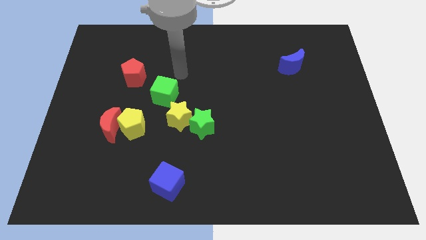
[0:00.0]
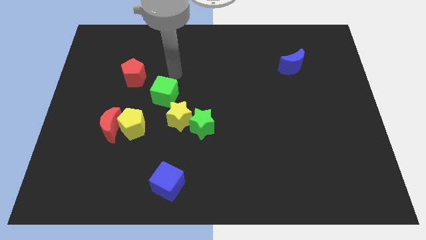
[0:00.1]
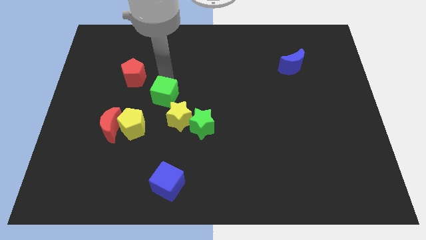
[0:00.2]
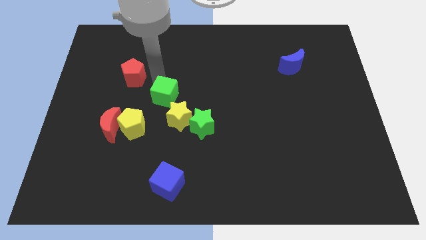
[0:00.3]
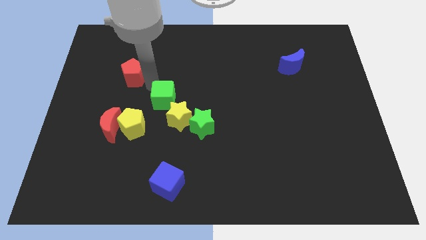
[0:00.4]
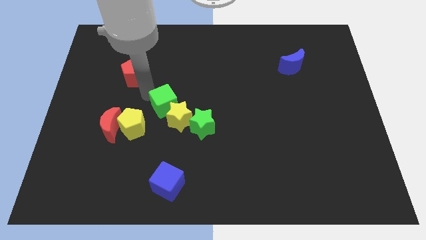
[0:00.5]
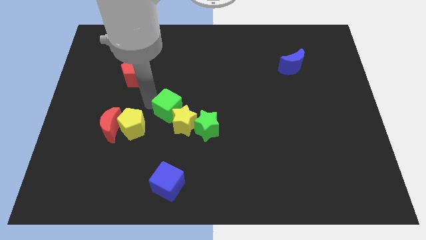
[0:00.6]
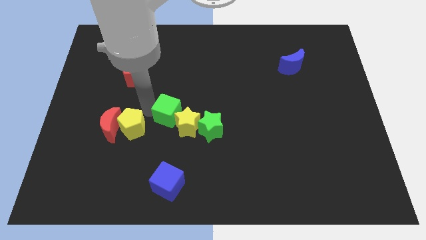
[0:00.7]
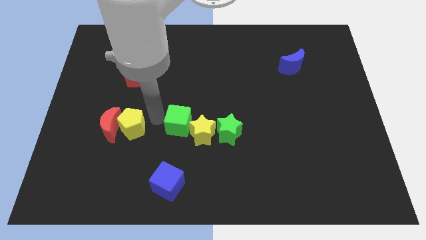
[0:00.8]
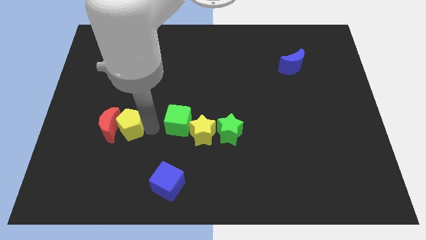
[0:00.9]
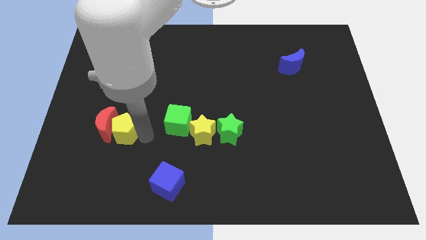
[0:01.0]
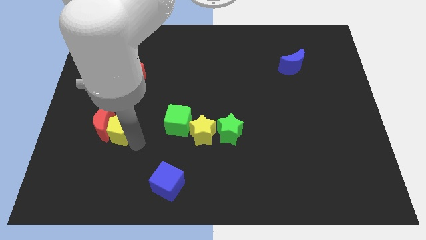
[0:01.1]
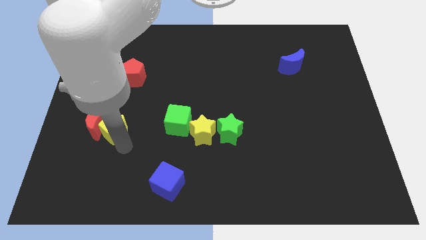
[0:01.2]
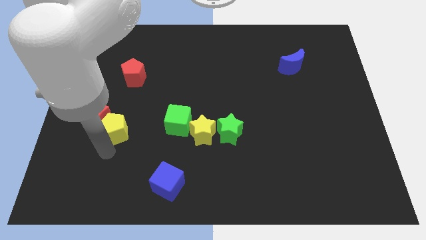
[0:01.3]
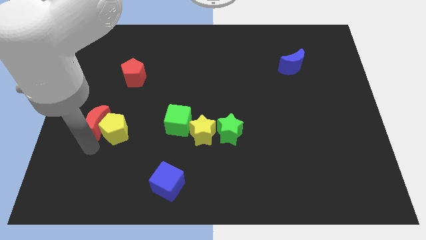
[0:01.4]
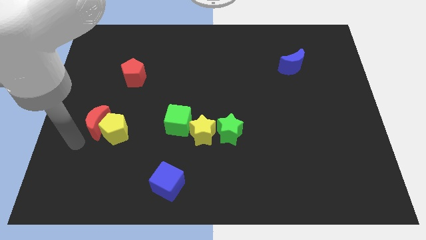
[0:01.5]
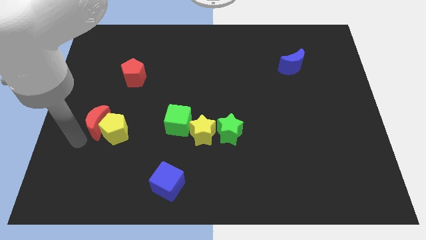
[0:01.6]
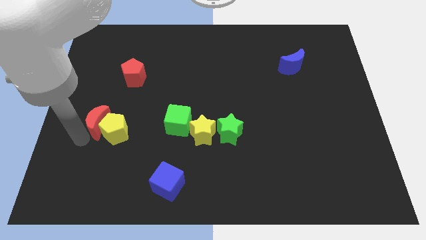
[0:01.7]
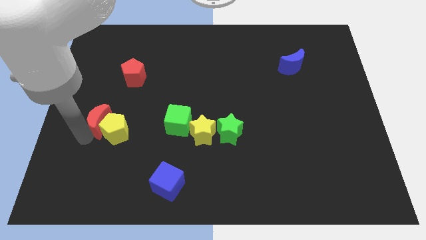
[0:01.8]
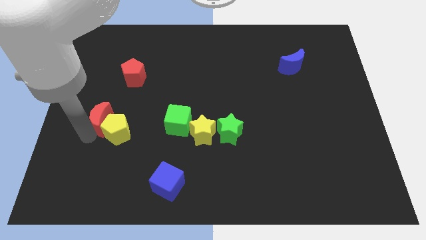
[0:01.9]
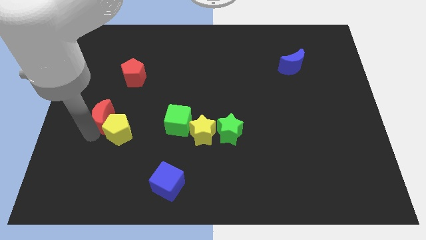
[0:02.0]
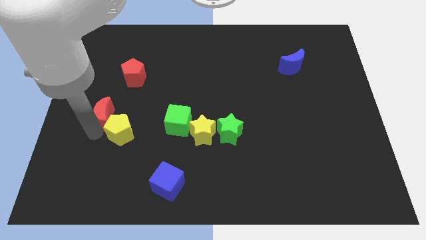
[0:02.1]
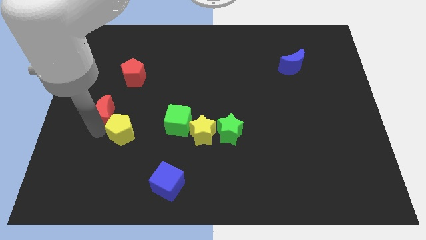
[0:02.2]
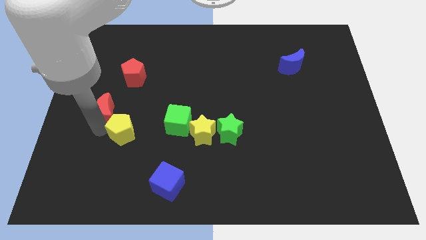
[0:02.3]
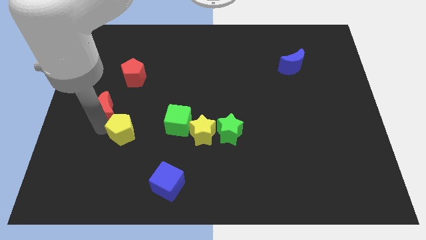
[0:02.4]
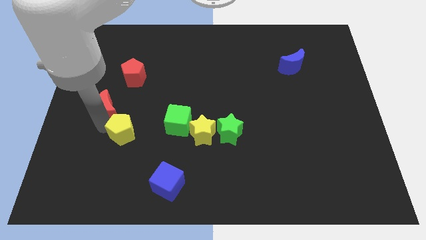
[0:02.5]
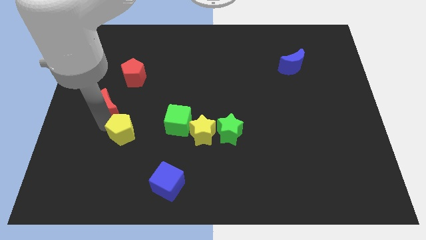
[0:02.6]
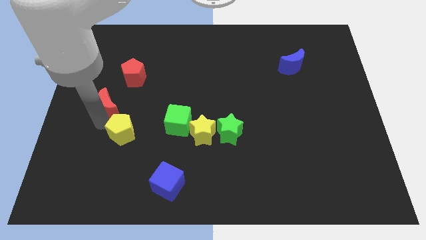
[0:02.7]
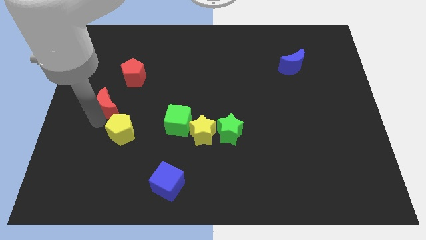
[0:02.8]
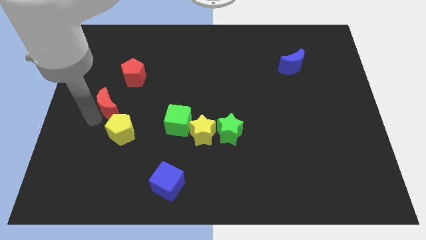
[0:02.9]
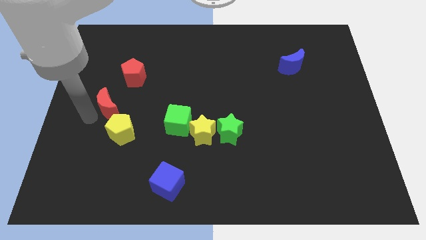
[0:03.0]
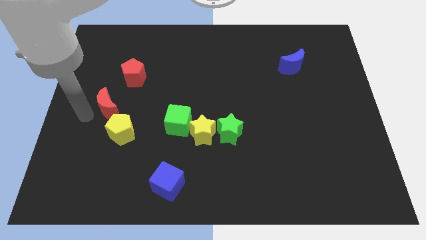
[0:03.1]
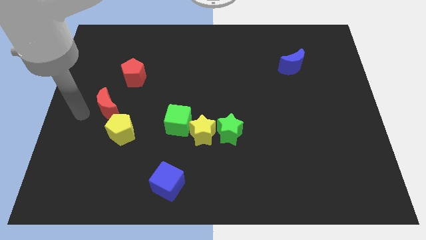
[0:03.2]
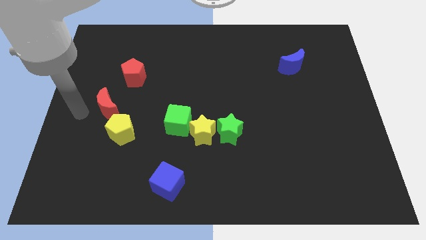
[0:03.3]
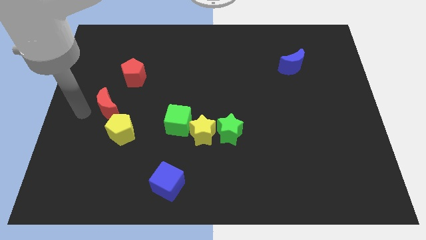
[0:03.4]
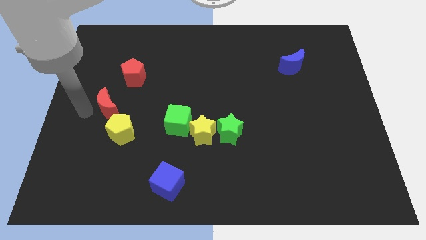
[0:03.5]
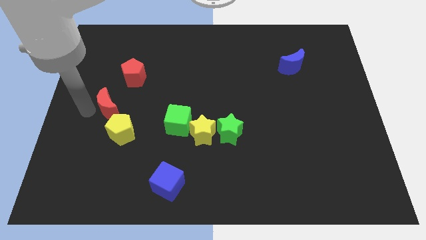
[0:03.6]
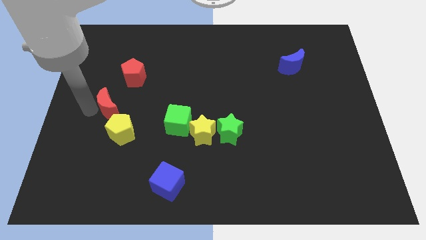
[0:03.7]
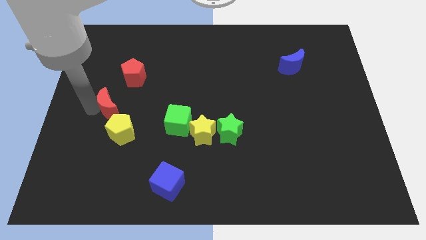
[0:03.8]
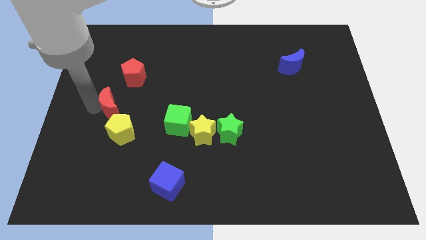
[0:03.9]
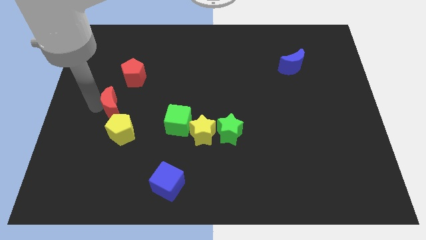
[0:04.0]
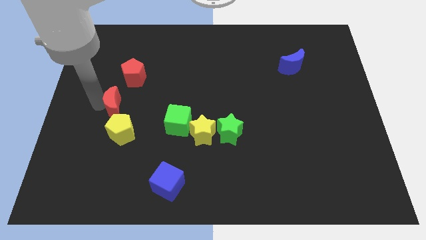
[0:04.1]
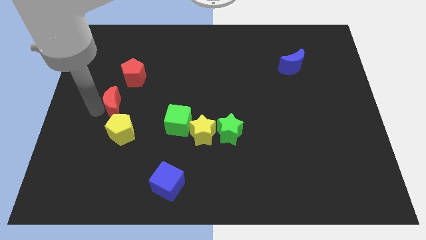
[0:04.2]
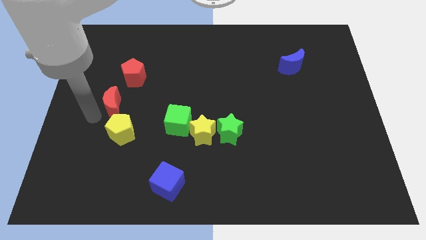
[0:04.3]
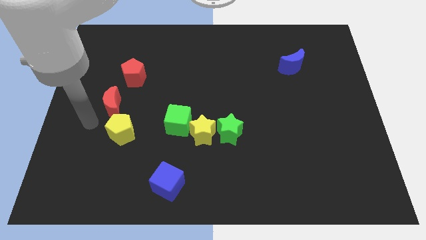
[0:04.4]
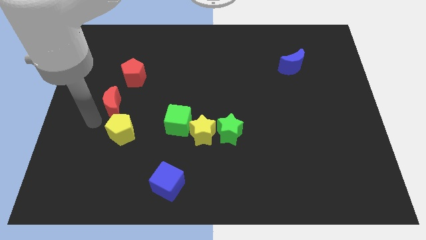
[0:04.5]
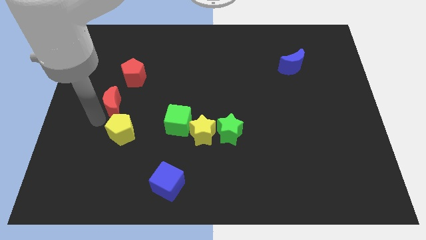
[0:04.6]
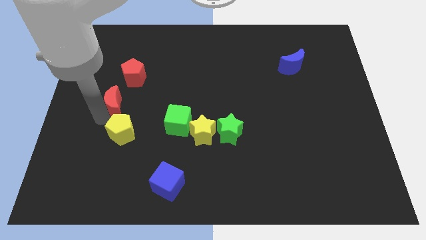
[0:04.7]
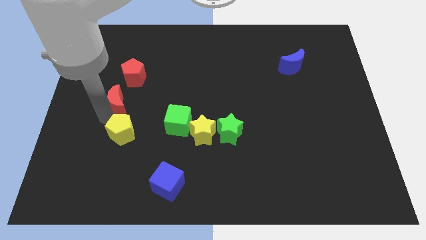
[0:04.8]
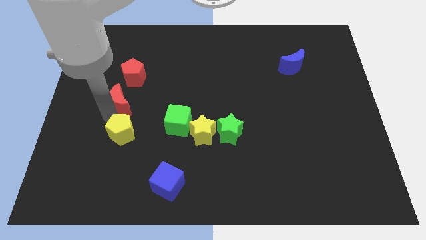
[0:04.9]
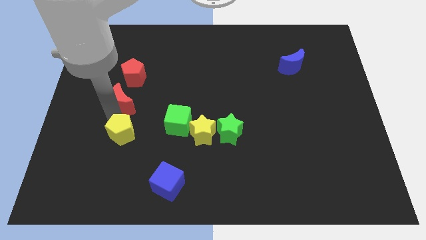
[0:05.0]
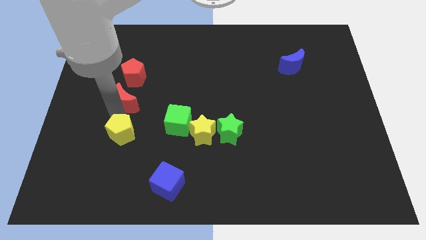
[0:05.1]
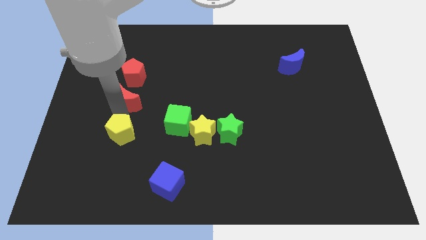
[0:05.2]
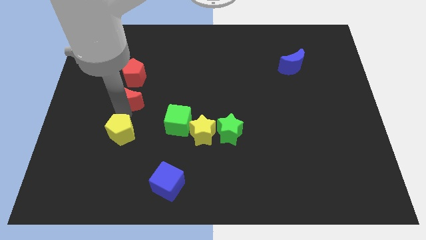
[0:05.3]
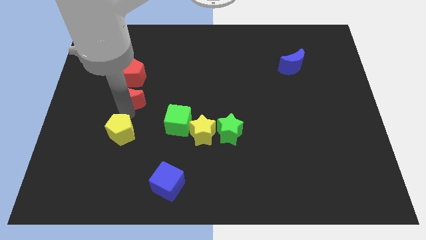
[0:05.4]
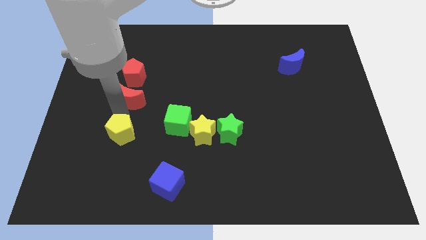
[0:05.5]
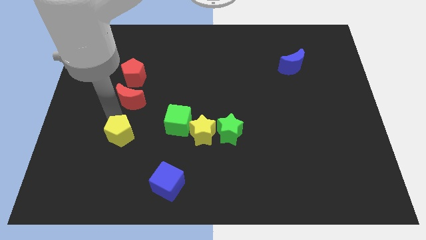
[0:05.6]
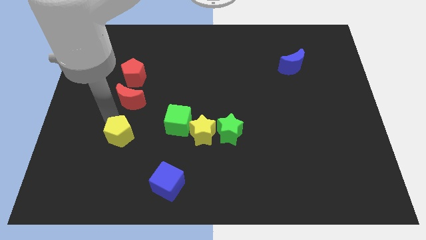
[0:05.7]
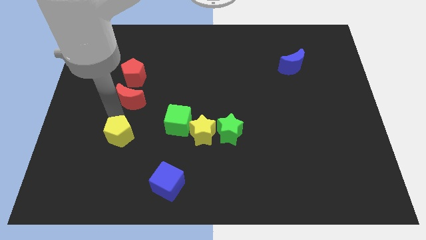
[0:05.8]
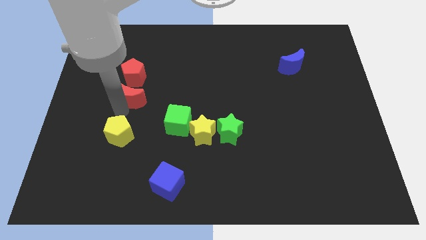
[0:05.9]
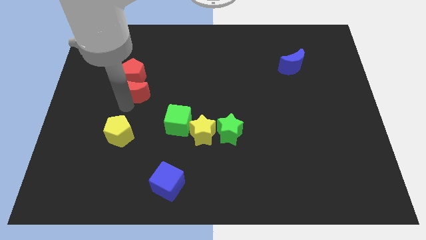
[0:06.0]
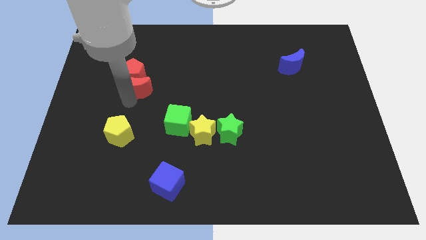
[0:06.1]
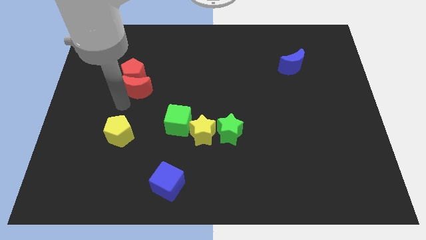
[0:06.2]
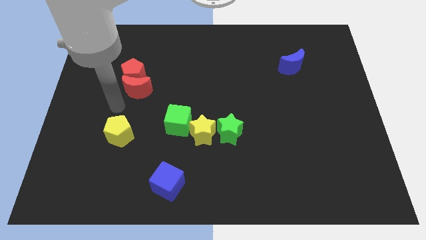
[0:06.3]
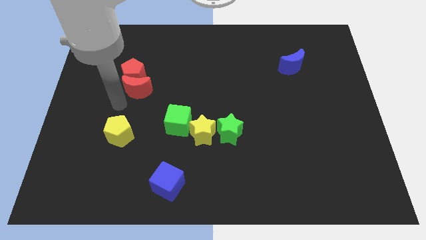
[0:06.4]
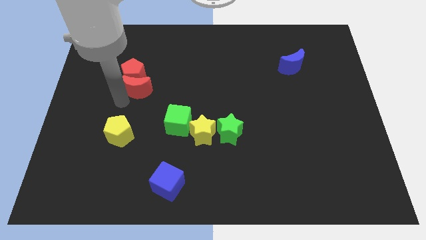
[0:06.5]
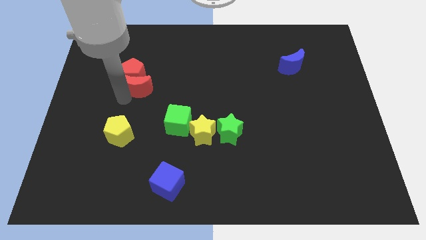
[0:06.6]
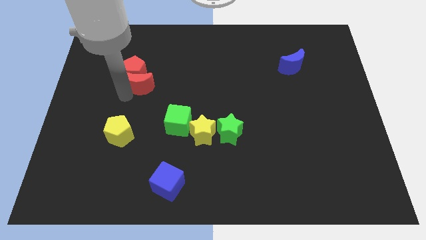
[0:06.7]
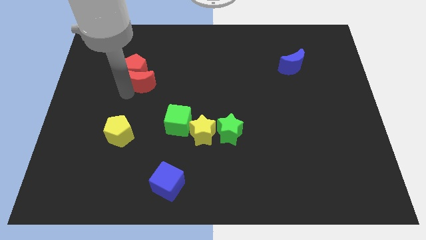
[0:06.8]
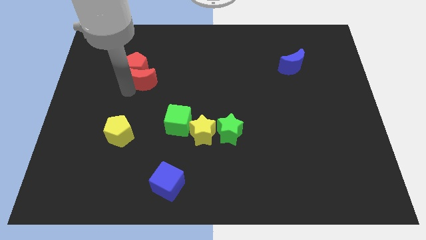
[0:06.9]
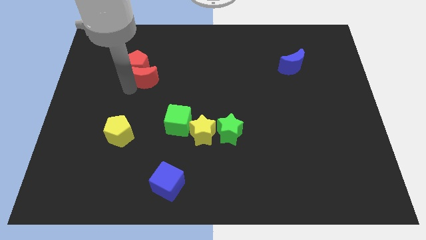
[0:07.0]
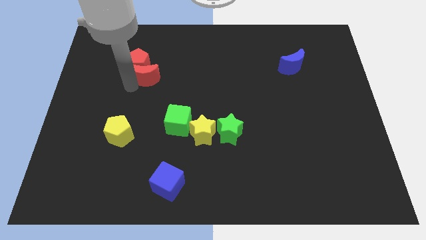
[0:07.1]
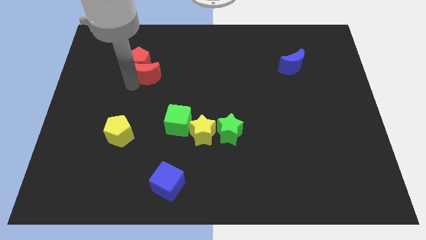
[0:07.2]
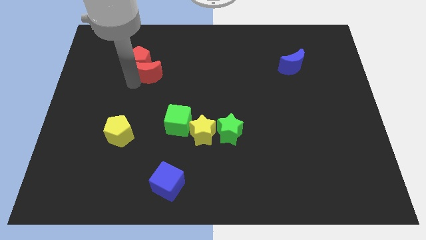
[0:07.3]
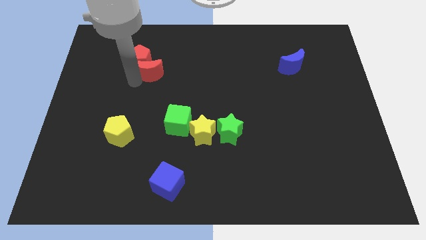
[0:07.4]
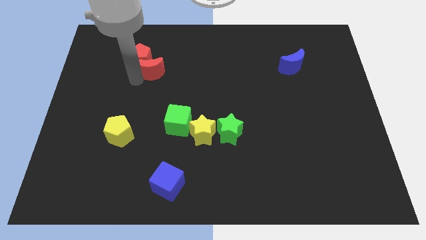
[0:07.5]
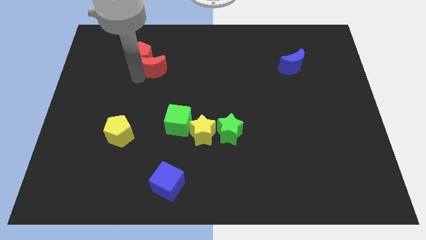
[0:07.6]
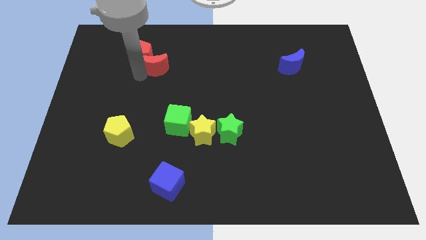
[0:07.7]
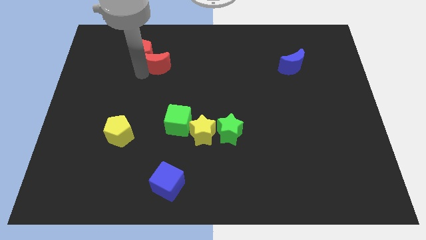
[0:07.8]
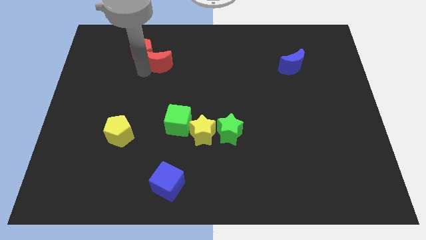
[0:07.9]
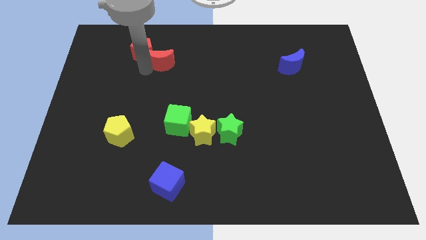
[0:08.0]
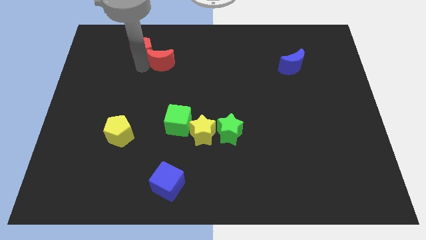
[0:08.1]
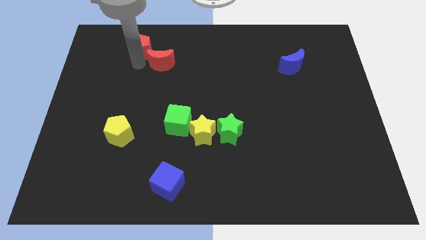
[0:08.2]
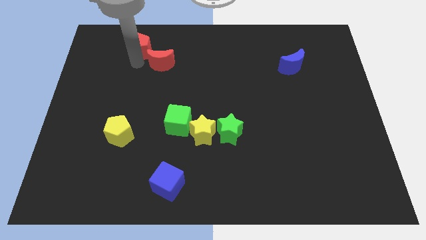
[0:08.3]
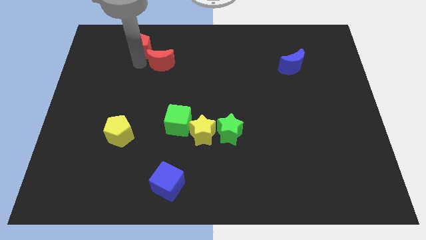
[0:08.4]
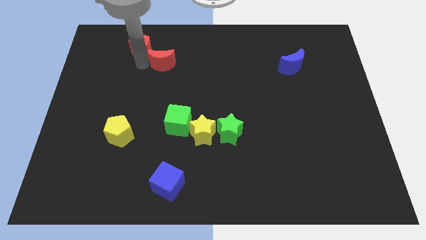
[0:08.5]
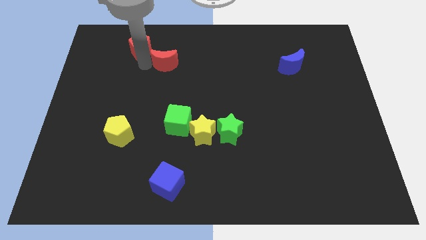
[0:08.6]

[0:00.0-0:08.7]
move the red moon upwards and to the right
